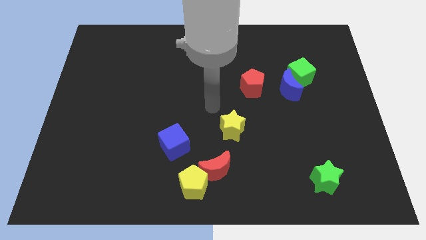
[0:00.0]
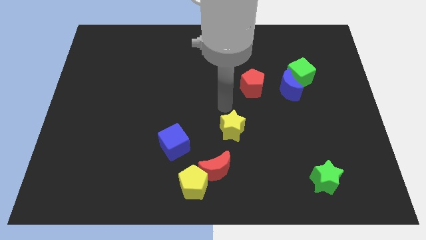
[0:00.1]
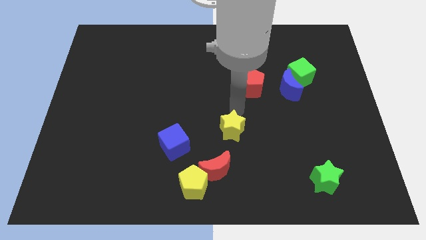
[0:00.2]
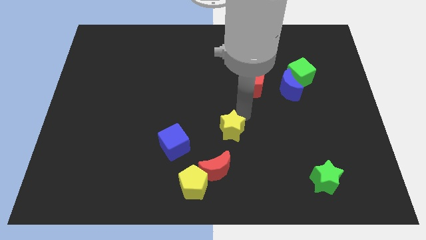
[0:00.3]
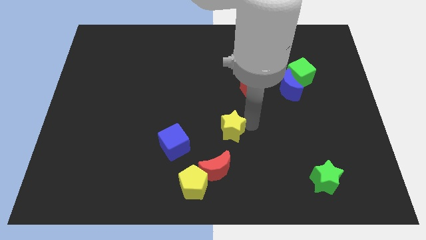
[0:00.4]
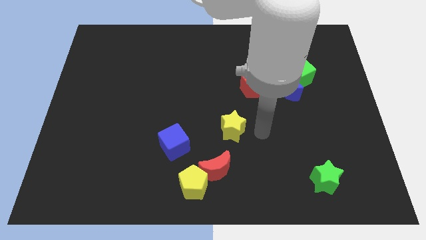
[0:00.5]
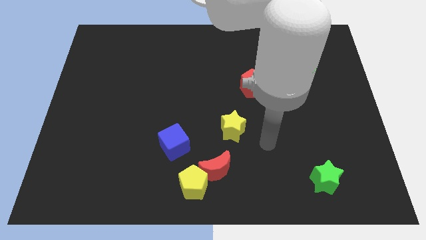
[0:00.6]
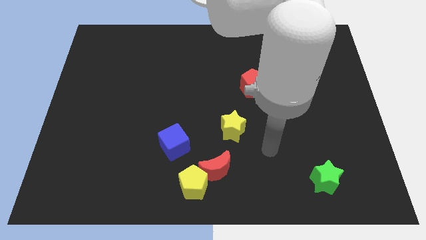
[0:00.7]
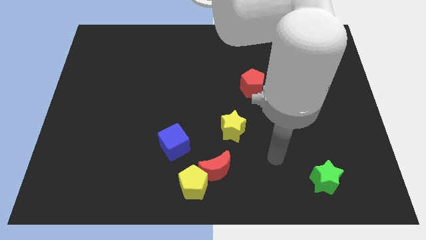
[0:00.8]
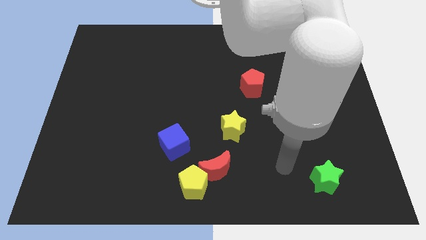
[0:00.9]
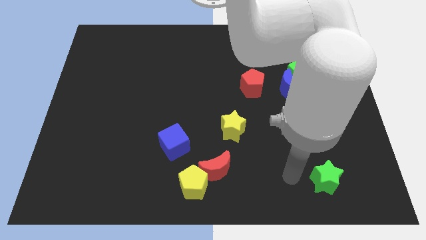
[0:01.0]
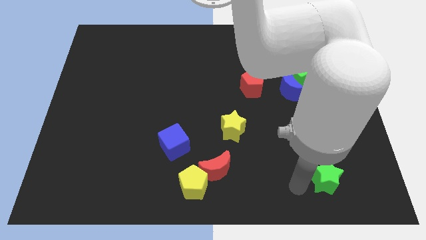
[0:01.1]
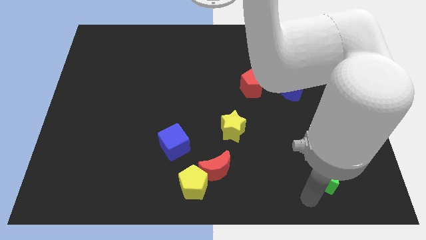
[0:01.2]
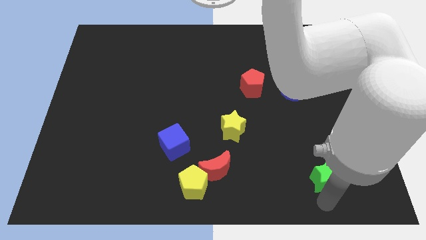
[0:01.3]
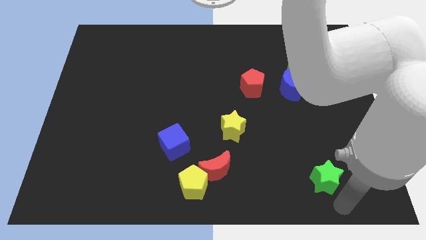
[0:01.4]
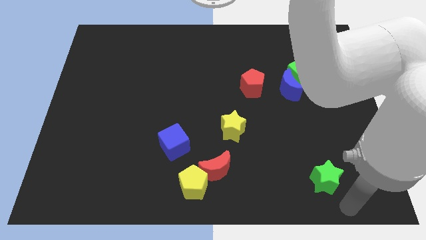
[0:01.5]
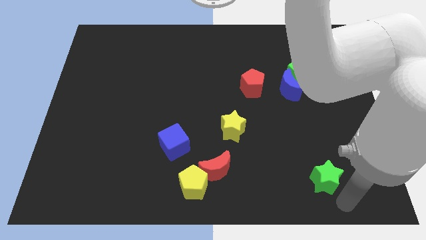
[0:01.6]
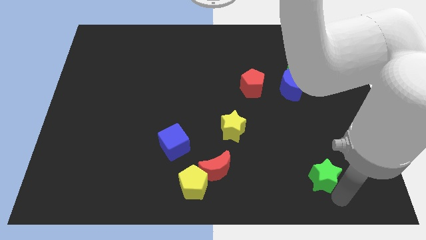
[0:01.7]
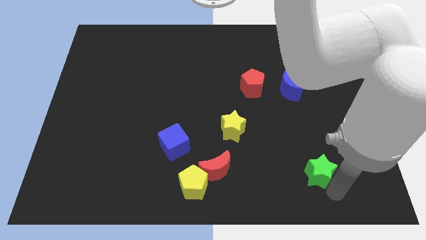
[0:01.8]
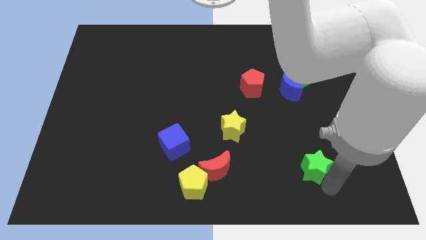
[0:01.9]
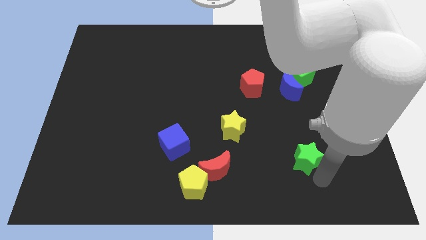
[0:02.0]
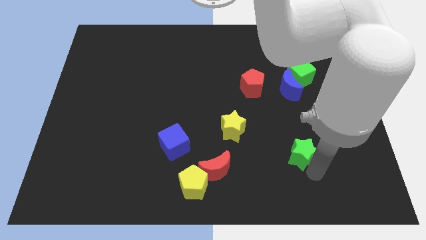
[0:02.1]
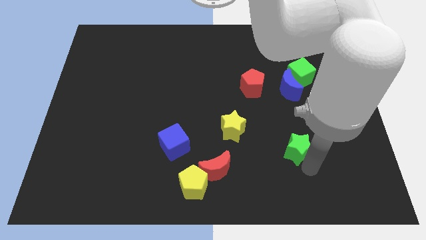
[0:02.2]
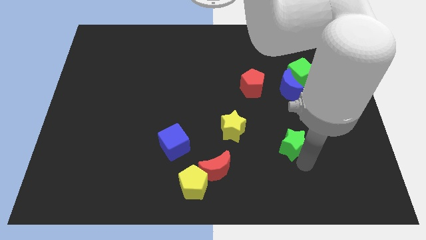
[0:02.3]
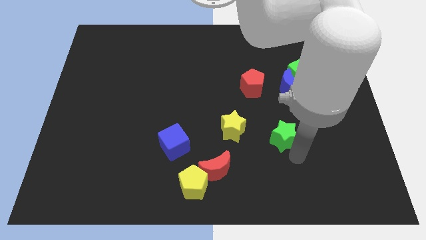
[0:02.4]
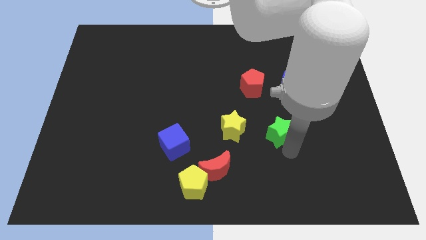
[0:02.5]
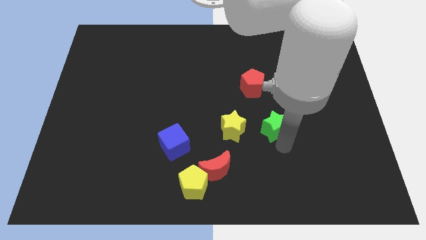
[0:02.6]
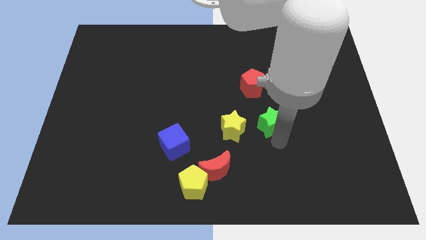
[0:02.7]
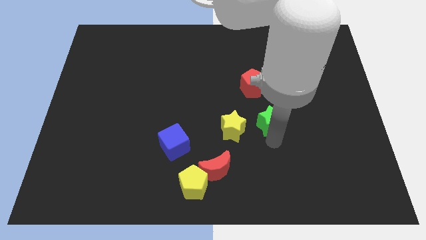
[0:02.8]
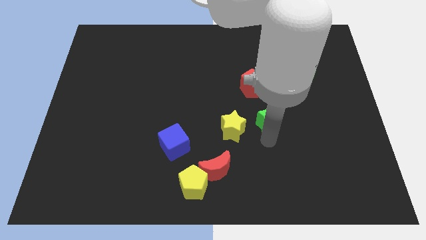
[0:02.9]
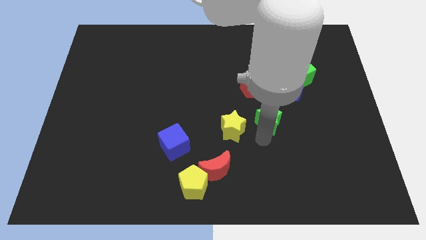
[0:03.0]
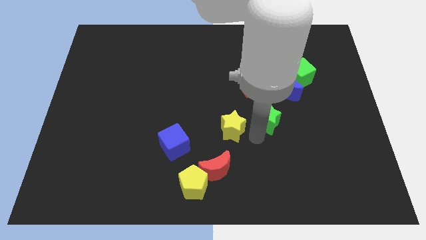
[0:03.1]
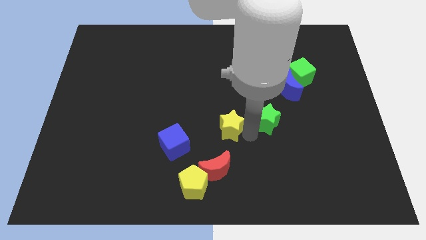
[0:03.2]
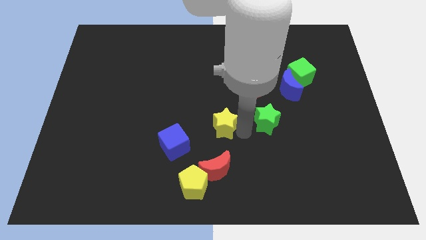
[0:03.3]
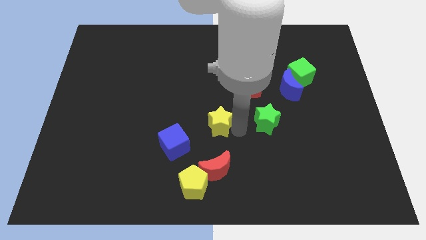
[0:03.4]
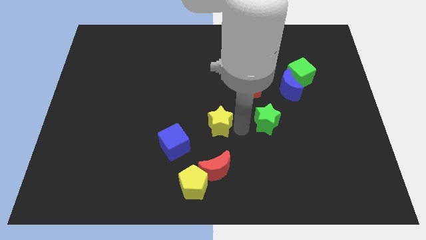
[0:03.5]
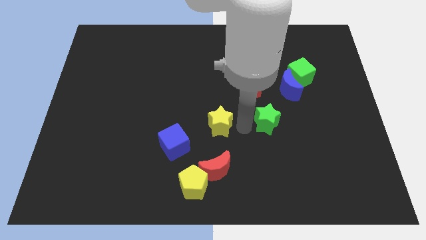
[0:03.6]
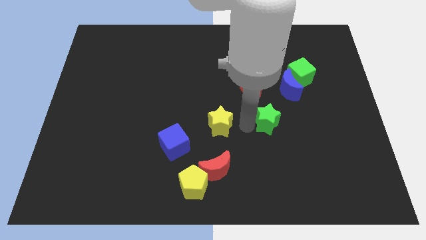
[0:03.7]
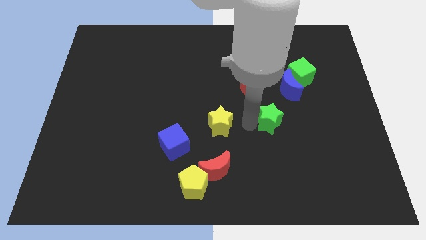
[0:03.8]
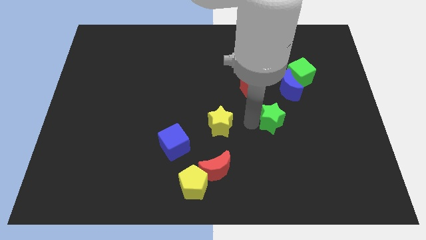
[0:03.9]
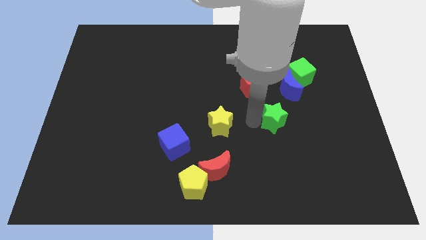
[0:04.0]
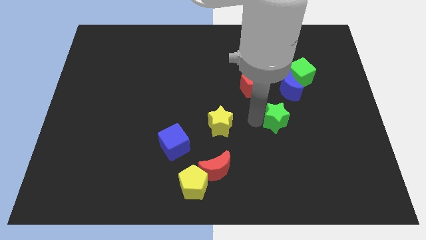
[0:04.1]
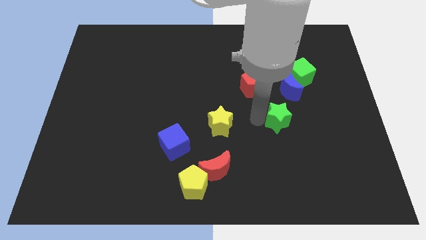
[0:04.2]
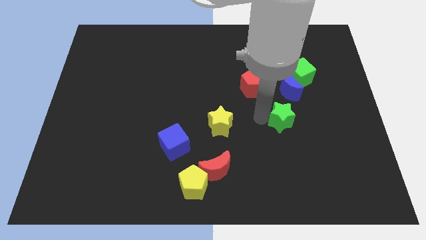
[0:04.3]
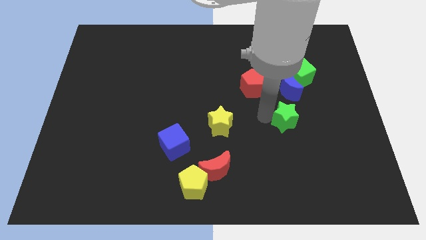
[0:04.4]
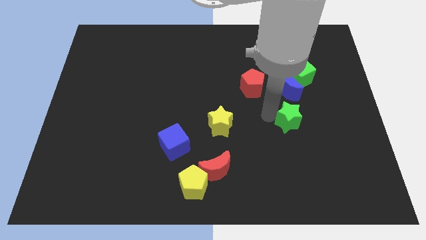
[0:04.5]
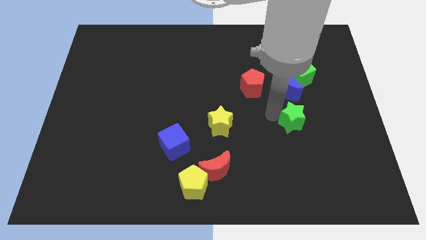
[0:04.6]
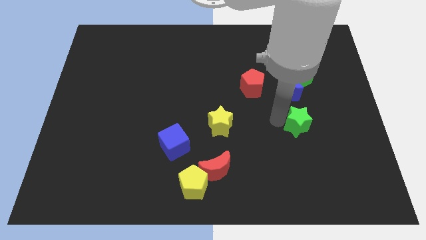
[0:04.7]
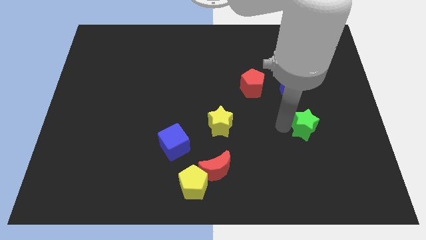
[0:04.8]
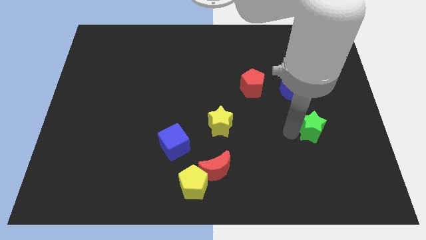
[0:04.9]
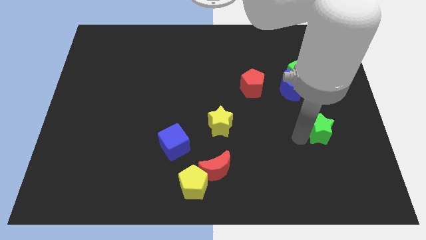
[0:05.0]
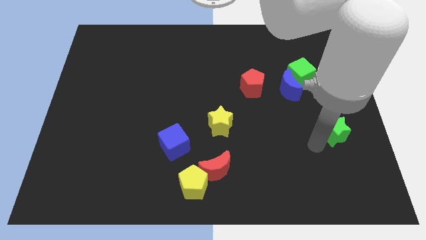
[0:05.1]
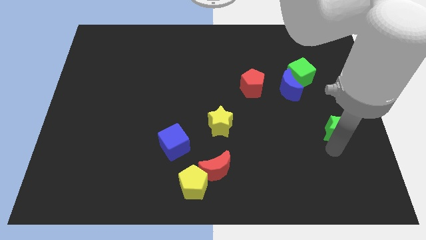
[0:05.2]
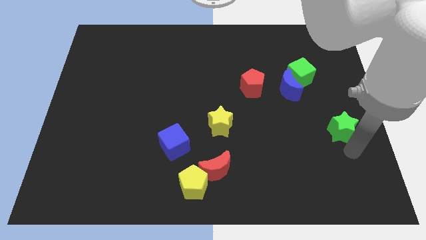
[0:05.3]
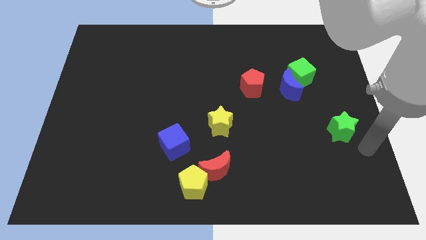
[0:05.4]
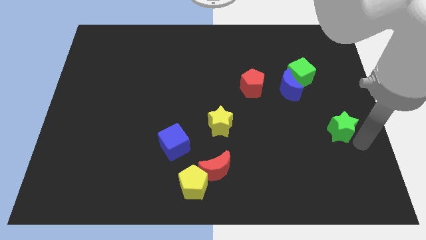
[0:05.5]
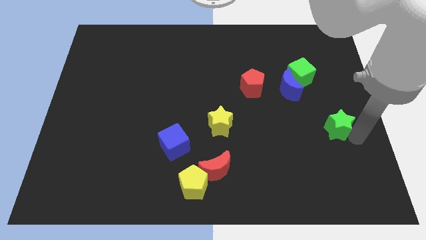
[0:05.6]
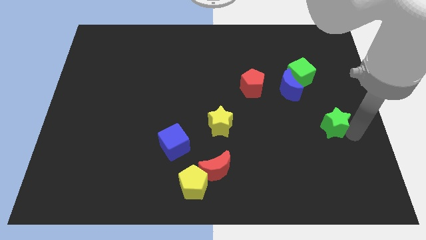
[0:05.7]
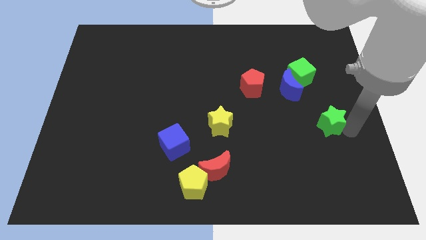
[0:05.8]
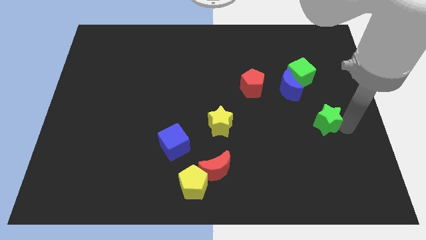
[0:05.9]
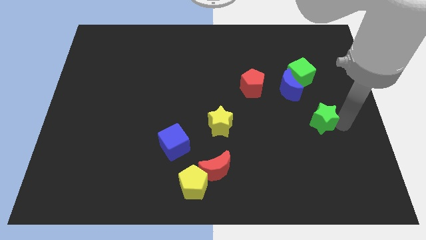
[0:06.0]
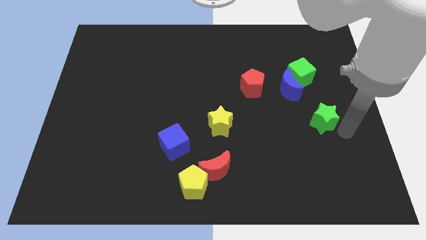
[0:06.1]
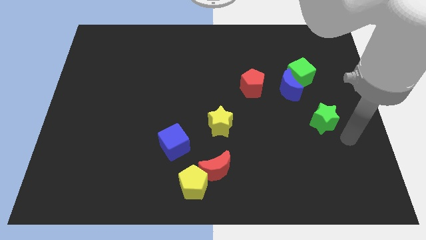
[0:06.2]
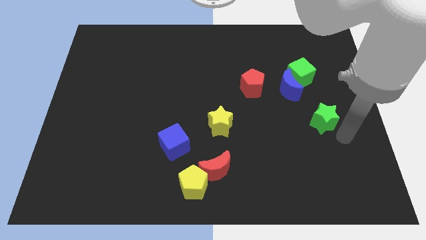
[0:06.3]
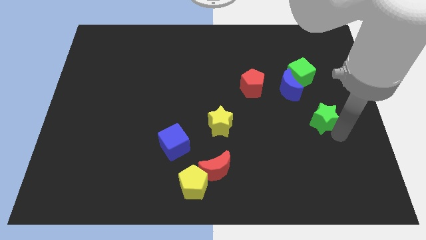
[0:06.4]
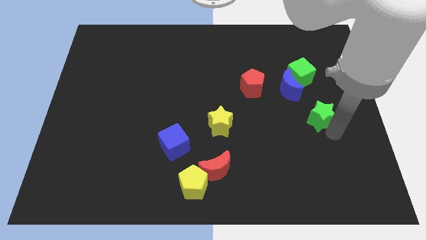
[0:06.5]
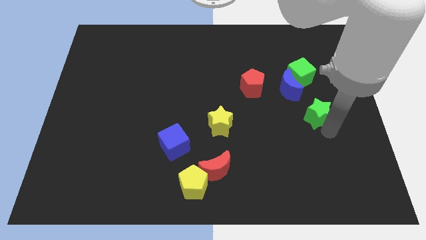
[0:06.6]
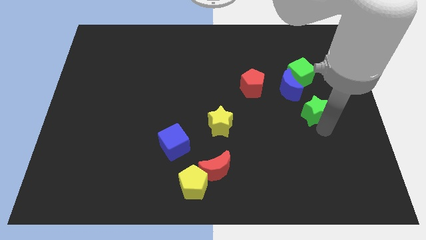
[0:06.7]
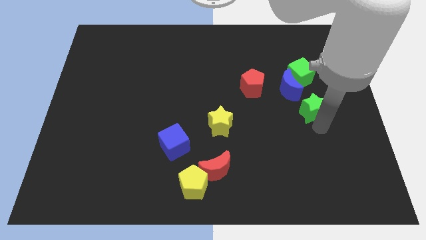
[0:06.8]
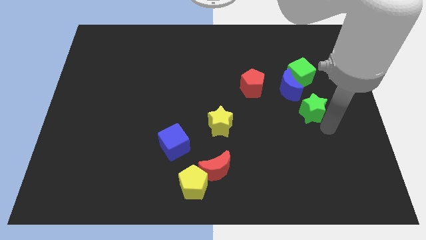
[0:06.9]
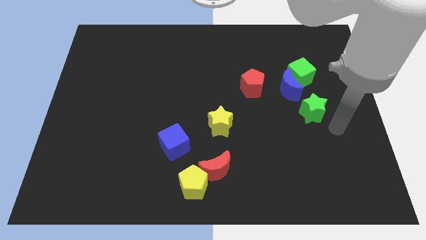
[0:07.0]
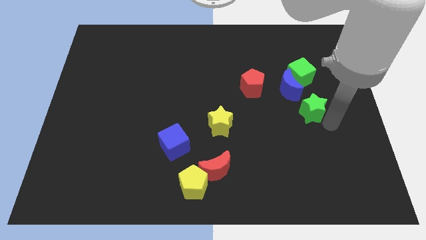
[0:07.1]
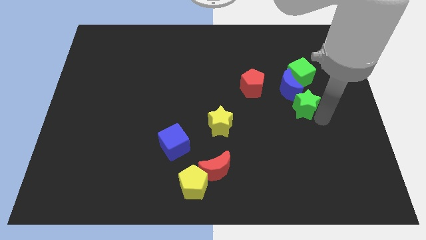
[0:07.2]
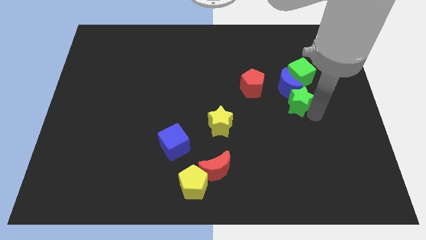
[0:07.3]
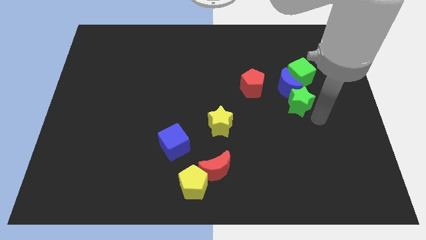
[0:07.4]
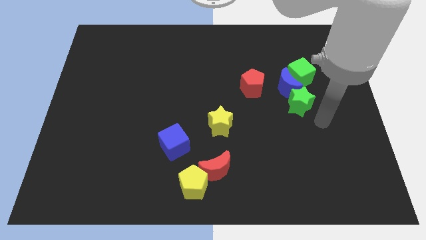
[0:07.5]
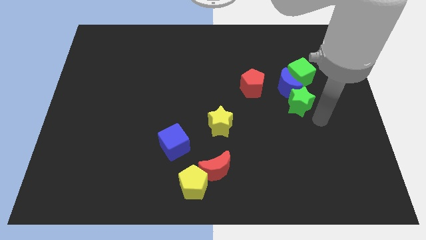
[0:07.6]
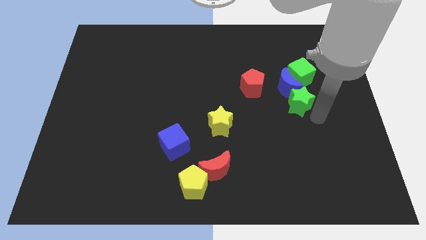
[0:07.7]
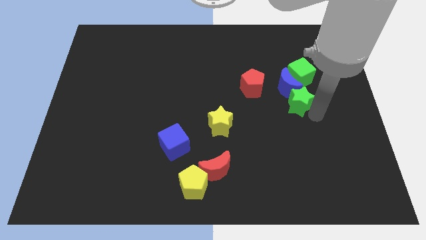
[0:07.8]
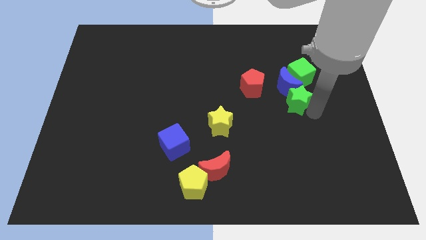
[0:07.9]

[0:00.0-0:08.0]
move the green star to the bottom left of the green cube

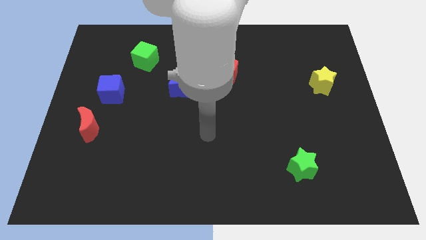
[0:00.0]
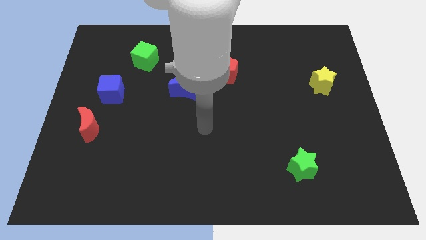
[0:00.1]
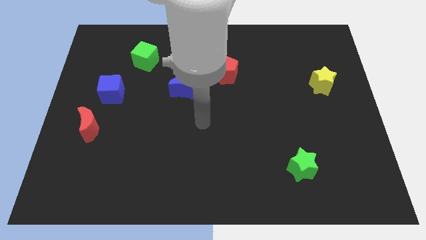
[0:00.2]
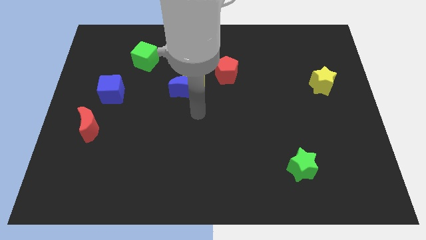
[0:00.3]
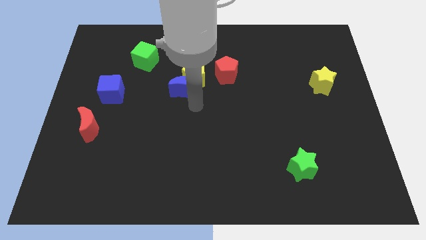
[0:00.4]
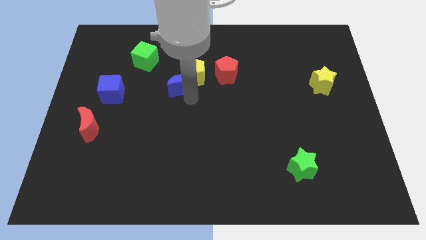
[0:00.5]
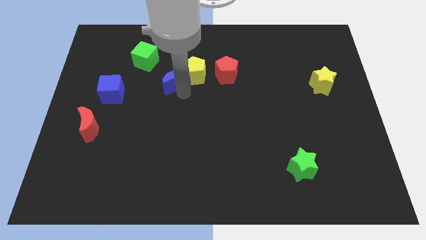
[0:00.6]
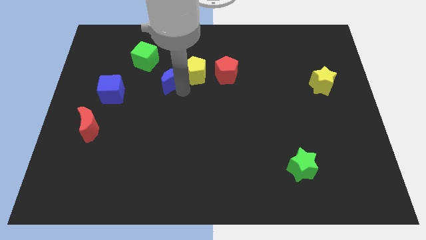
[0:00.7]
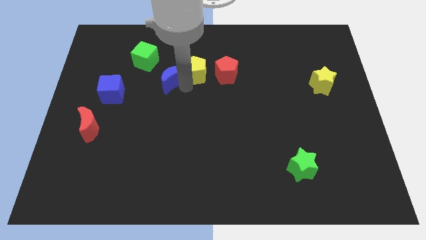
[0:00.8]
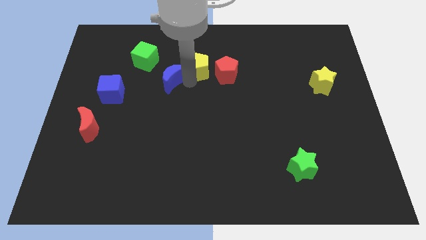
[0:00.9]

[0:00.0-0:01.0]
push the yellow pentagon to the top left of the red pentagon
